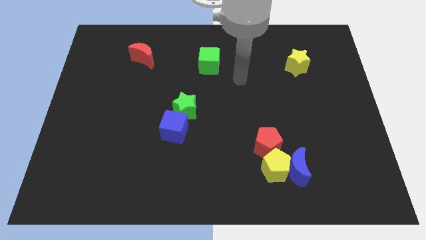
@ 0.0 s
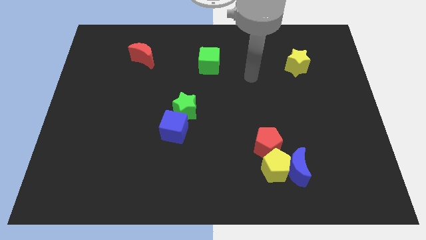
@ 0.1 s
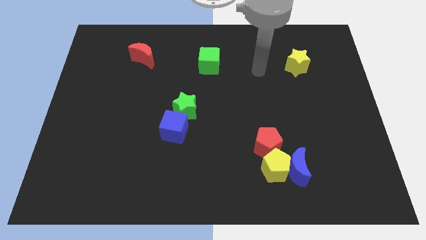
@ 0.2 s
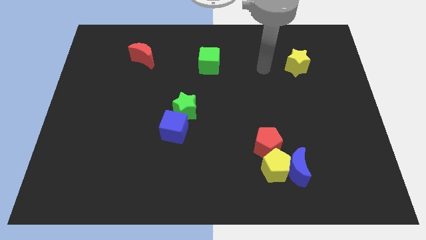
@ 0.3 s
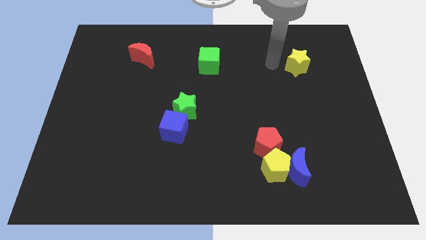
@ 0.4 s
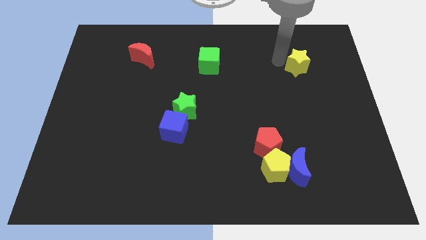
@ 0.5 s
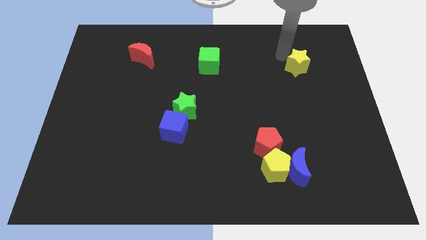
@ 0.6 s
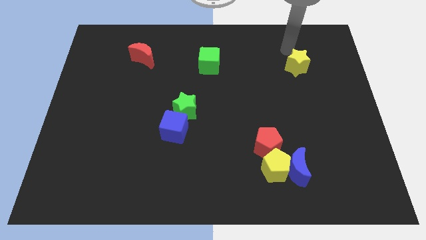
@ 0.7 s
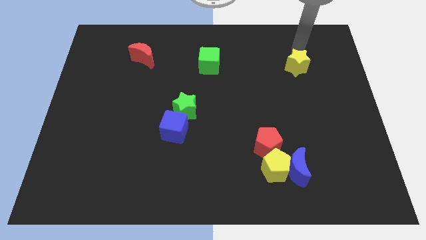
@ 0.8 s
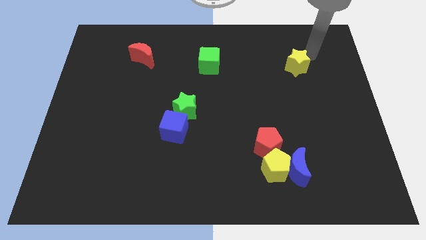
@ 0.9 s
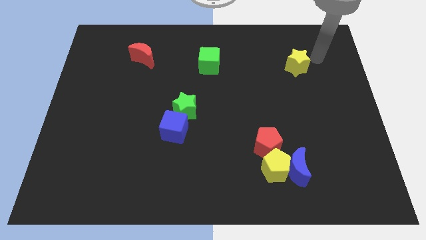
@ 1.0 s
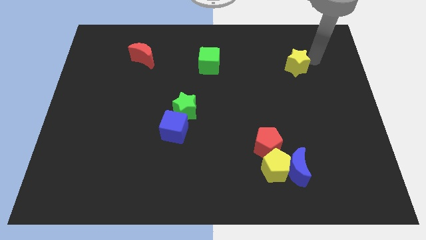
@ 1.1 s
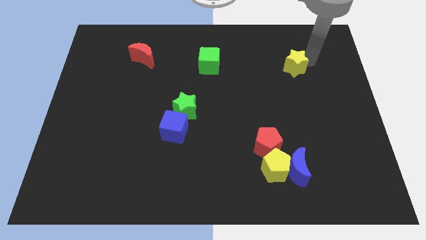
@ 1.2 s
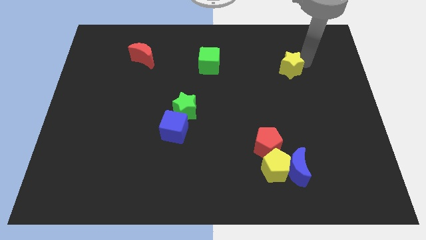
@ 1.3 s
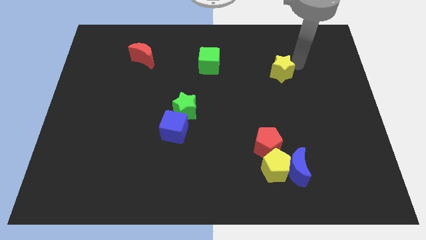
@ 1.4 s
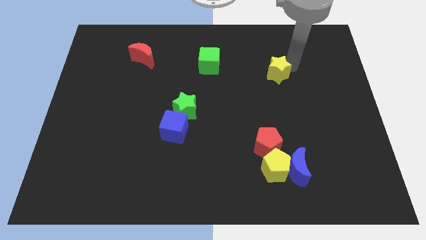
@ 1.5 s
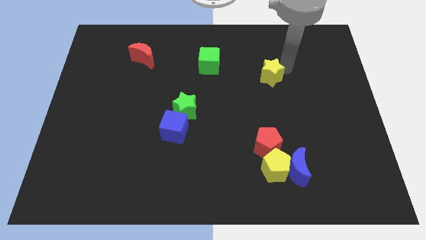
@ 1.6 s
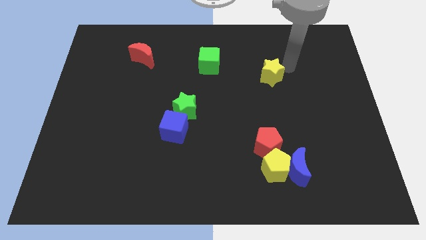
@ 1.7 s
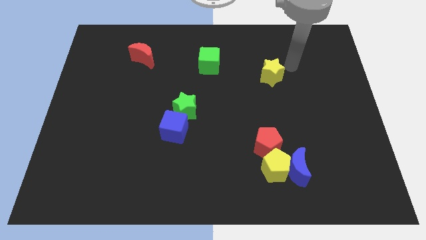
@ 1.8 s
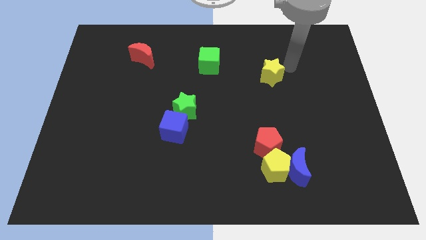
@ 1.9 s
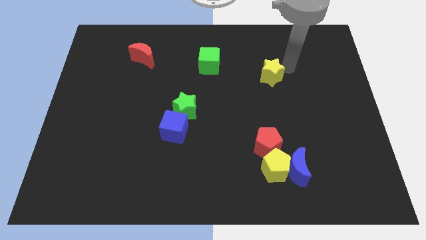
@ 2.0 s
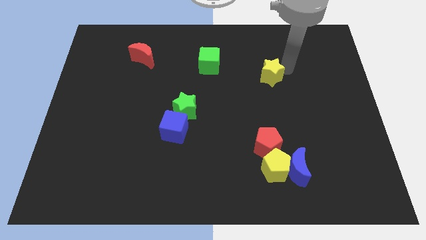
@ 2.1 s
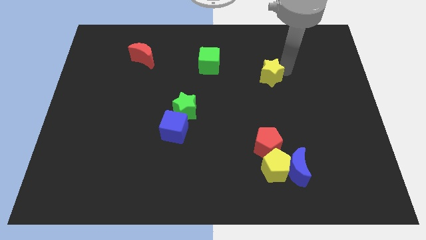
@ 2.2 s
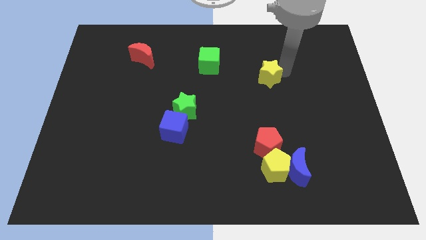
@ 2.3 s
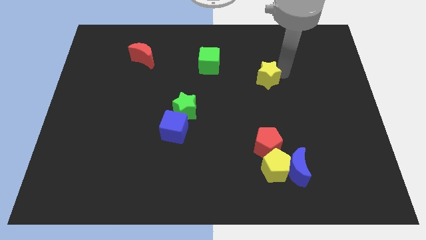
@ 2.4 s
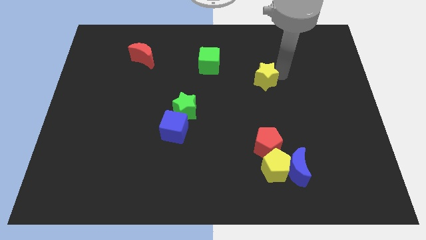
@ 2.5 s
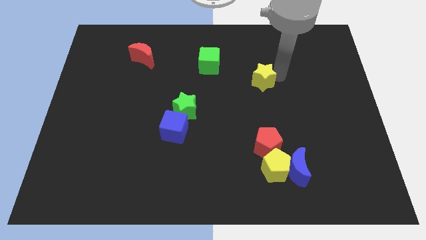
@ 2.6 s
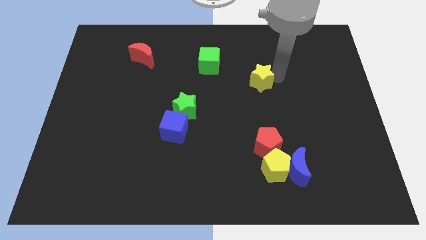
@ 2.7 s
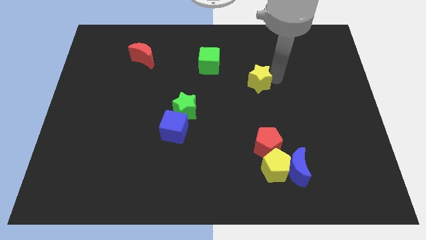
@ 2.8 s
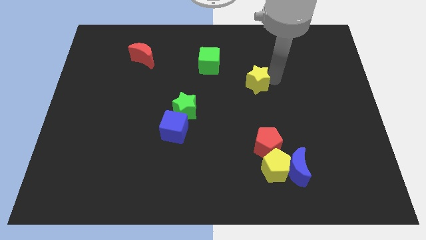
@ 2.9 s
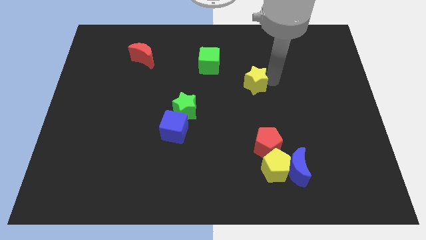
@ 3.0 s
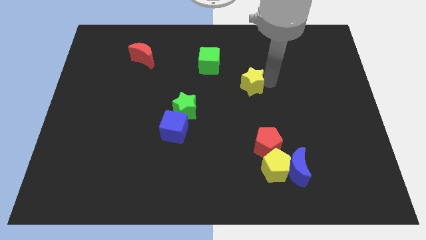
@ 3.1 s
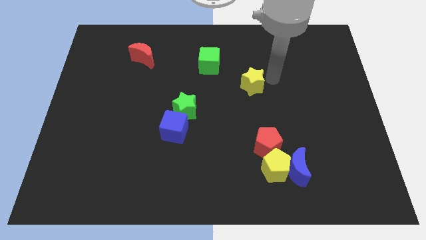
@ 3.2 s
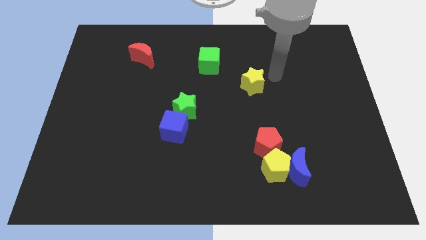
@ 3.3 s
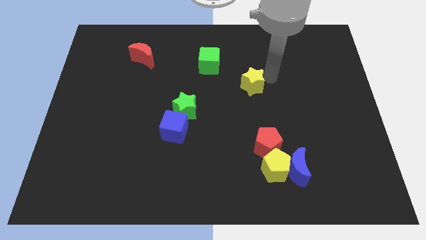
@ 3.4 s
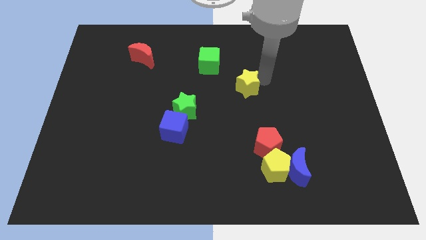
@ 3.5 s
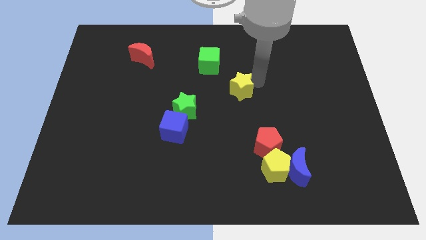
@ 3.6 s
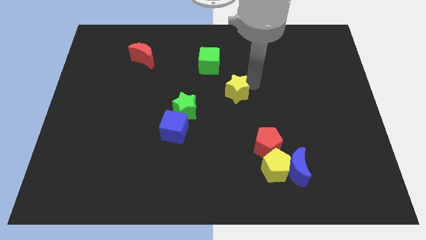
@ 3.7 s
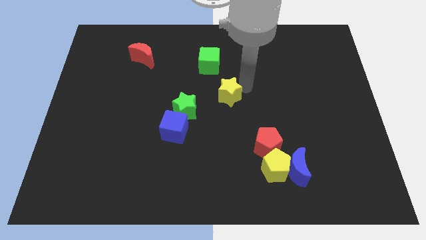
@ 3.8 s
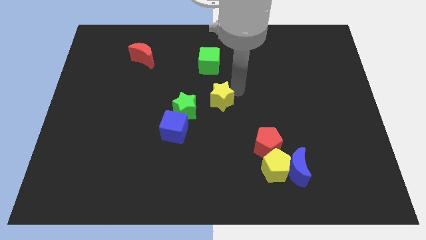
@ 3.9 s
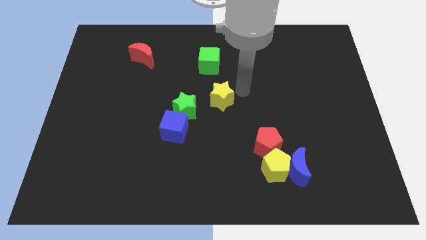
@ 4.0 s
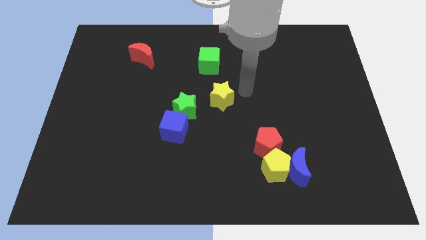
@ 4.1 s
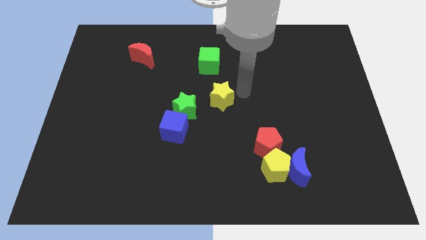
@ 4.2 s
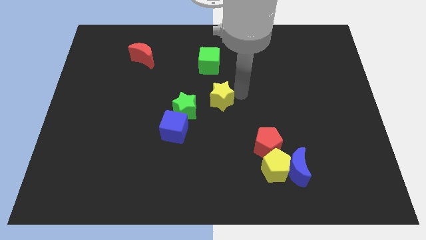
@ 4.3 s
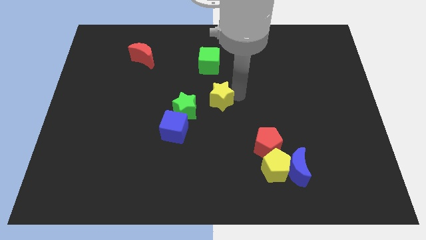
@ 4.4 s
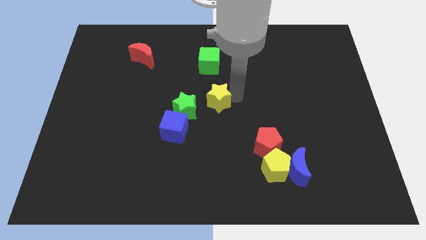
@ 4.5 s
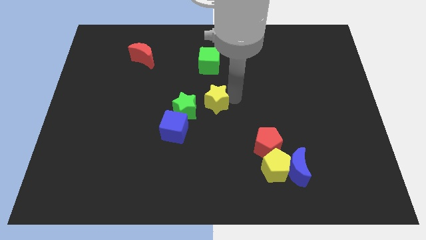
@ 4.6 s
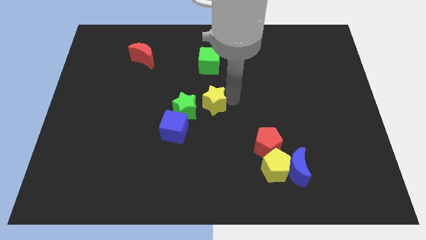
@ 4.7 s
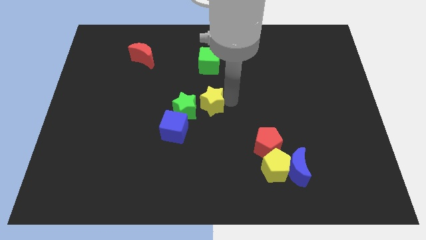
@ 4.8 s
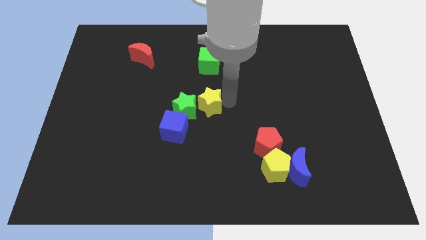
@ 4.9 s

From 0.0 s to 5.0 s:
put the yellow star close to the green star

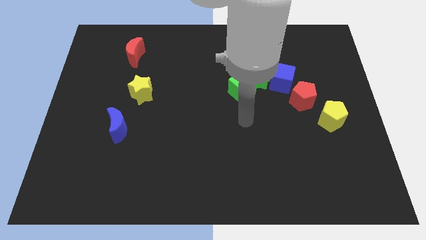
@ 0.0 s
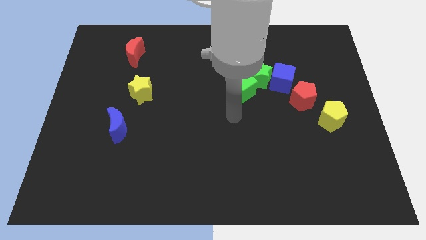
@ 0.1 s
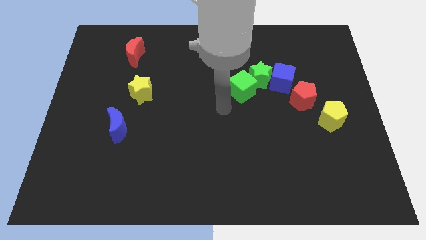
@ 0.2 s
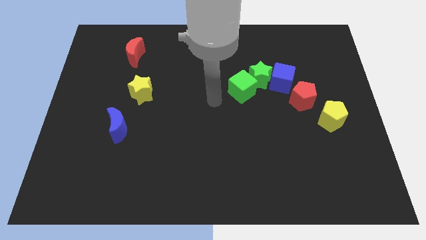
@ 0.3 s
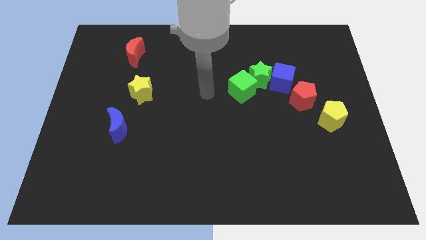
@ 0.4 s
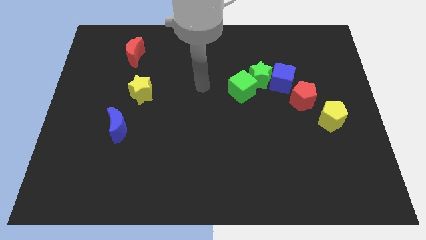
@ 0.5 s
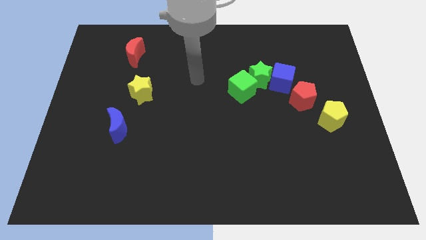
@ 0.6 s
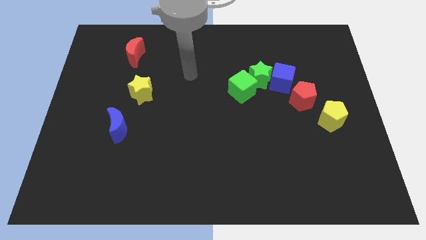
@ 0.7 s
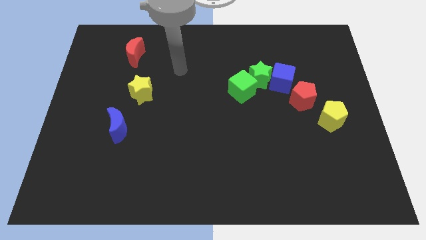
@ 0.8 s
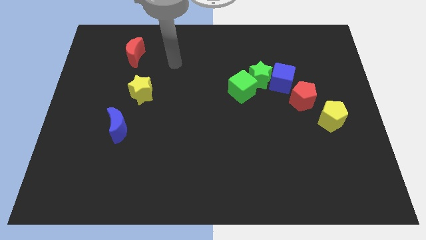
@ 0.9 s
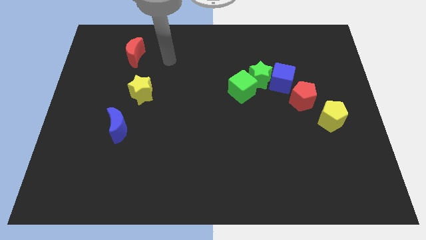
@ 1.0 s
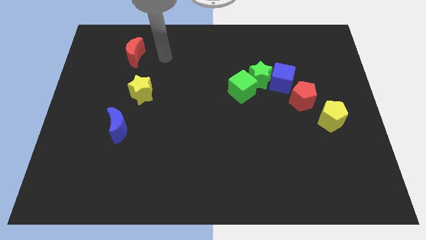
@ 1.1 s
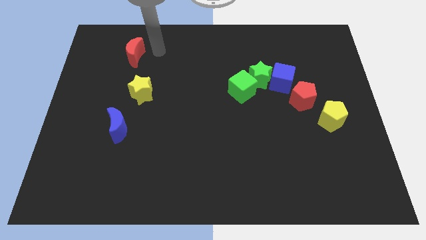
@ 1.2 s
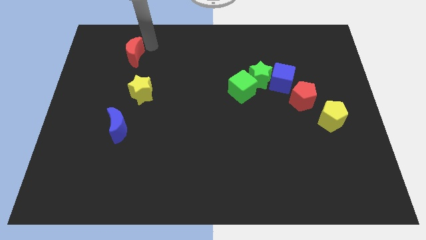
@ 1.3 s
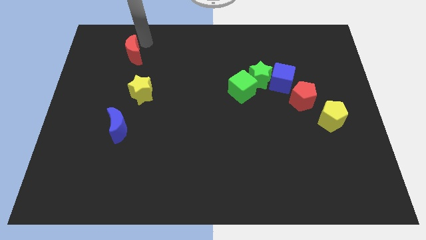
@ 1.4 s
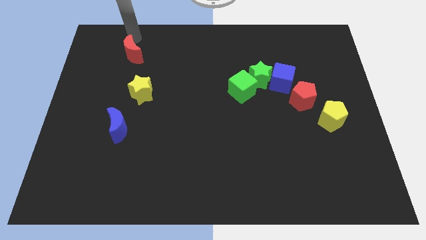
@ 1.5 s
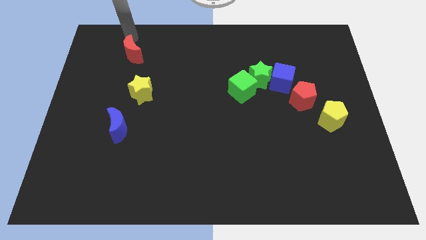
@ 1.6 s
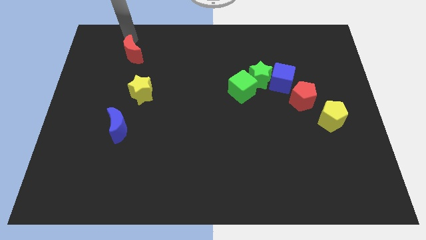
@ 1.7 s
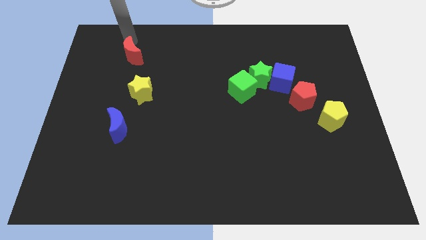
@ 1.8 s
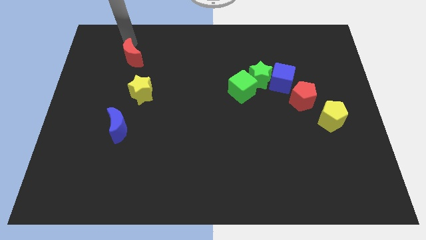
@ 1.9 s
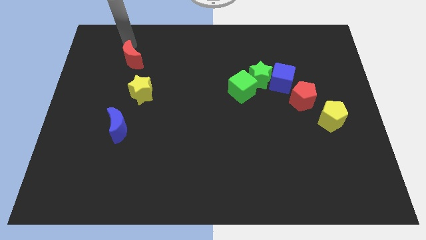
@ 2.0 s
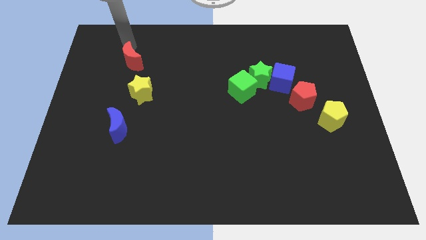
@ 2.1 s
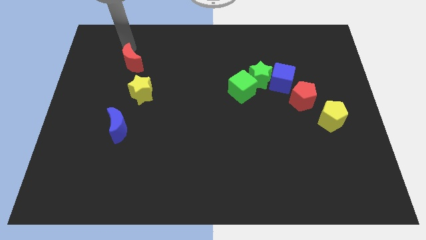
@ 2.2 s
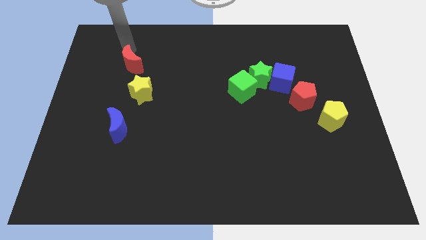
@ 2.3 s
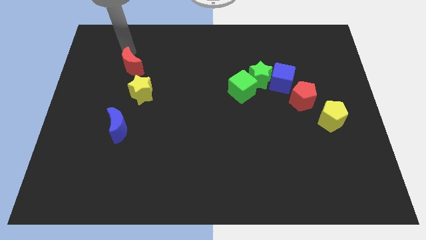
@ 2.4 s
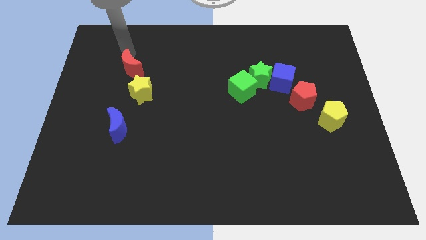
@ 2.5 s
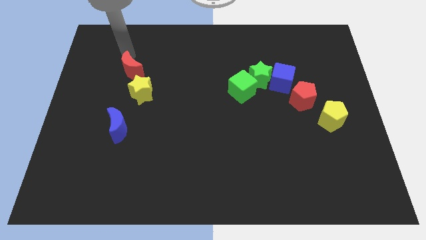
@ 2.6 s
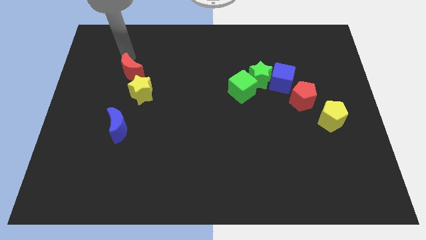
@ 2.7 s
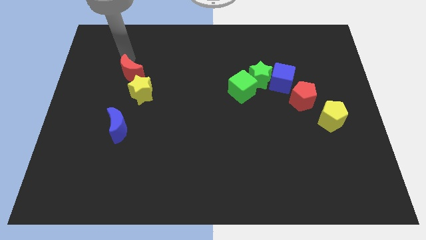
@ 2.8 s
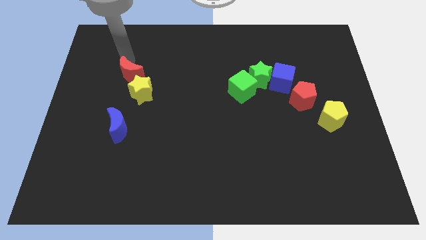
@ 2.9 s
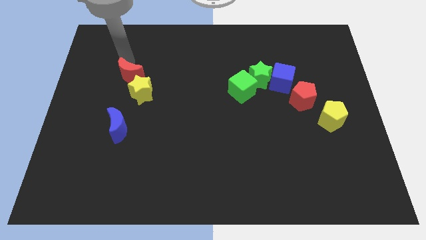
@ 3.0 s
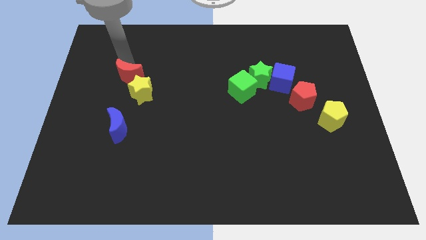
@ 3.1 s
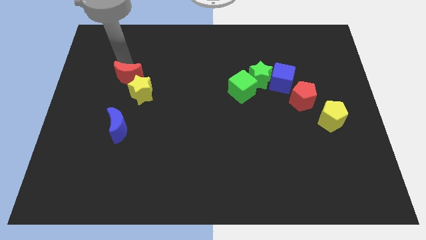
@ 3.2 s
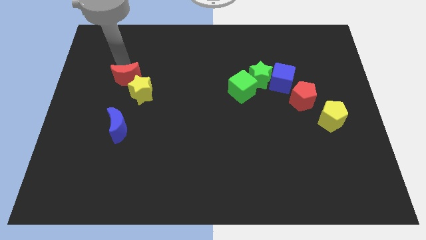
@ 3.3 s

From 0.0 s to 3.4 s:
push the red moon next to the yellow star
